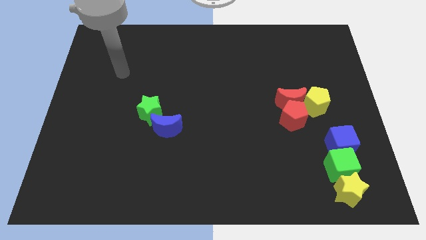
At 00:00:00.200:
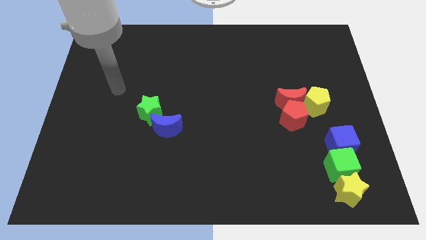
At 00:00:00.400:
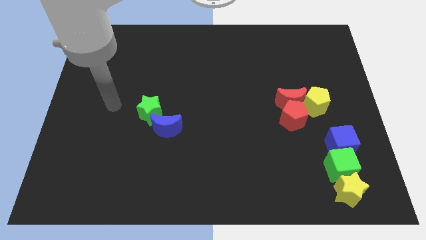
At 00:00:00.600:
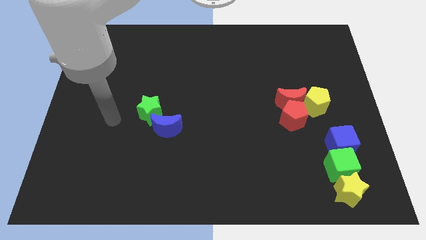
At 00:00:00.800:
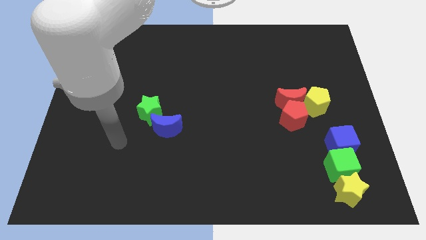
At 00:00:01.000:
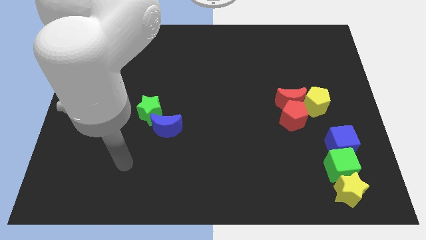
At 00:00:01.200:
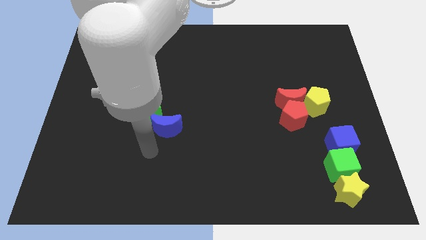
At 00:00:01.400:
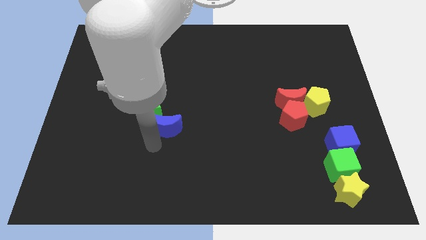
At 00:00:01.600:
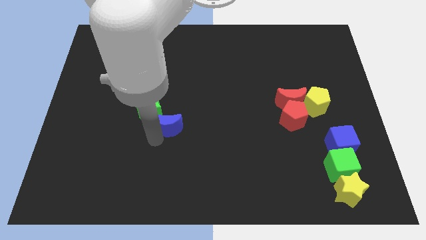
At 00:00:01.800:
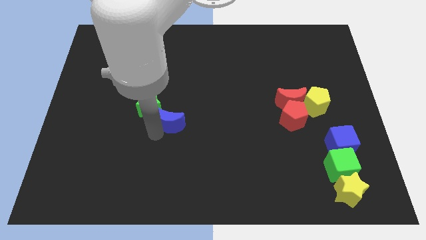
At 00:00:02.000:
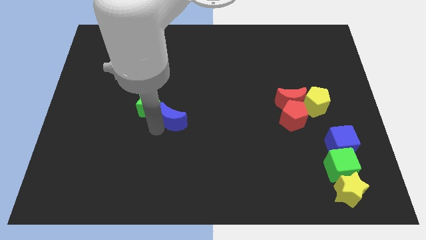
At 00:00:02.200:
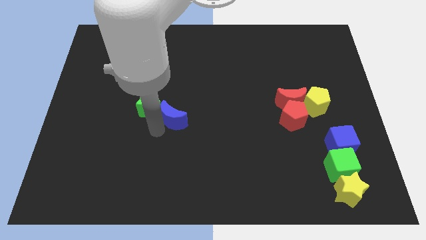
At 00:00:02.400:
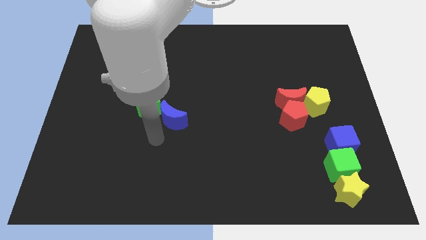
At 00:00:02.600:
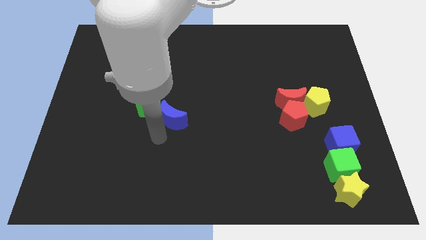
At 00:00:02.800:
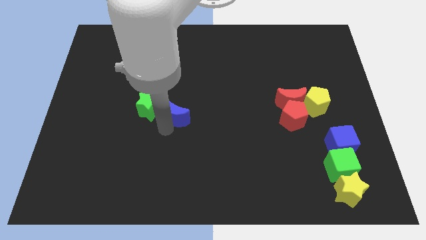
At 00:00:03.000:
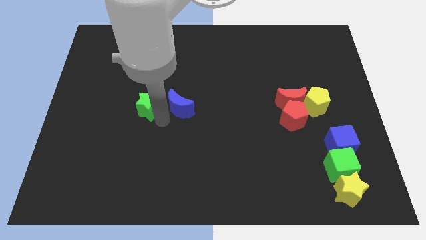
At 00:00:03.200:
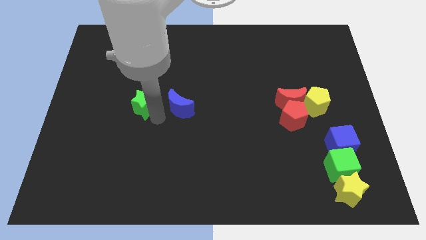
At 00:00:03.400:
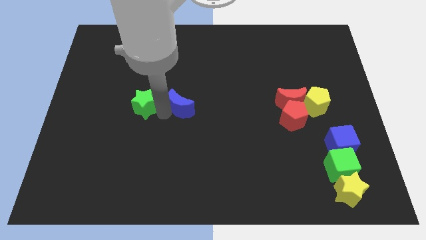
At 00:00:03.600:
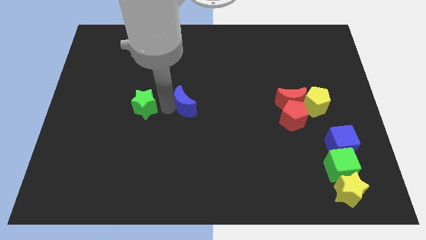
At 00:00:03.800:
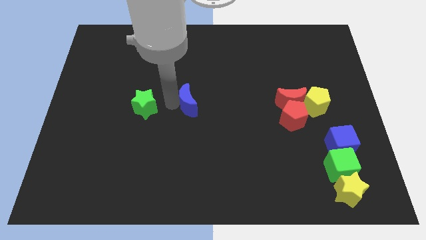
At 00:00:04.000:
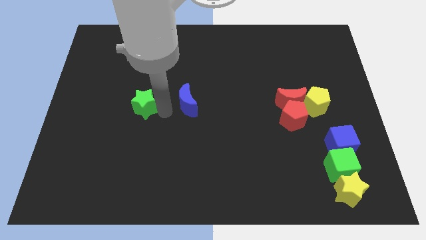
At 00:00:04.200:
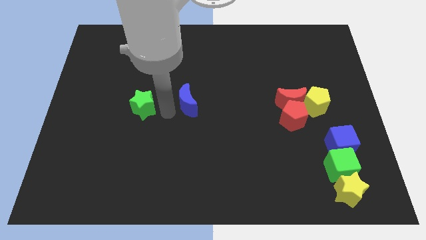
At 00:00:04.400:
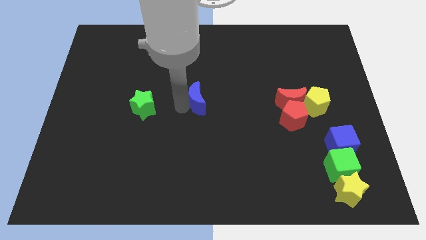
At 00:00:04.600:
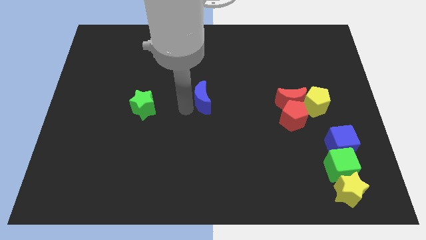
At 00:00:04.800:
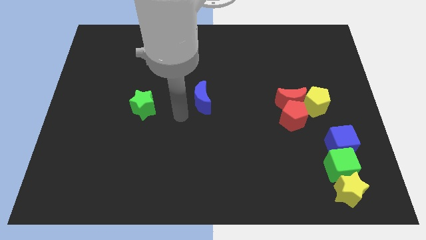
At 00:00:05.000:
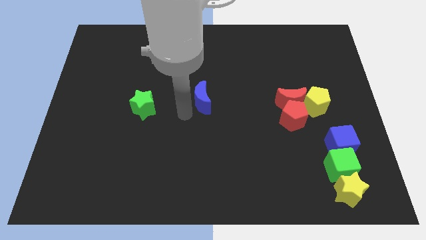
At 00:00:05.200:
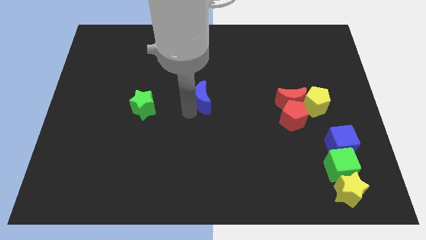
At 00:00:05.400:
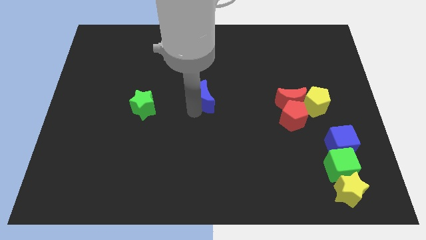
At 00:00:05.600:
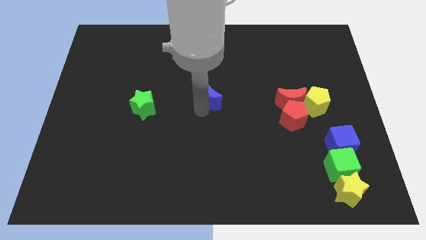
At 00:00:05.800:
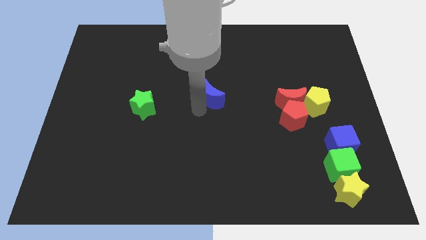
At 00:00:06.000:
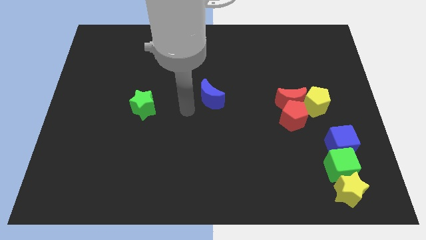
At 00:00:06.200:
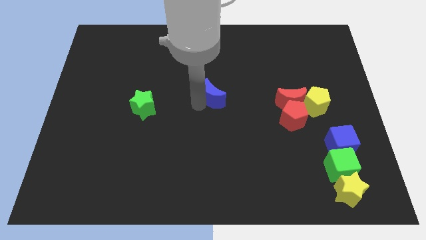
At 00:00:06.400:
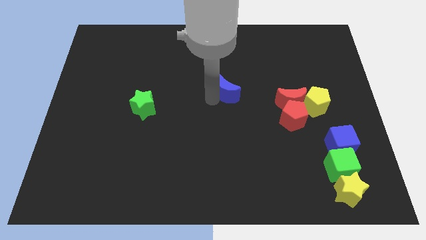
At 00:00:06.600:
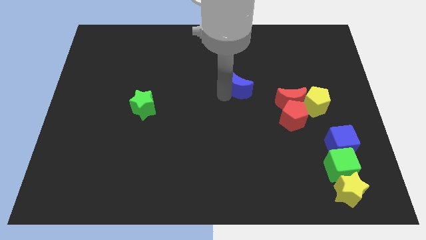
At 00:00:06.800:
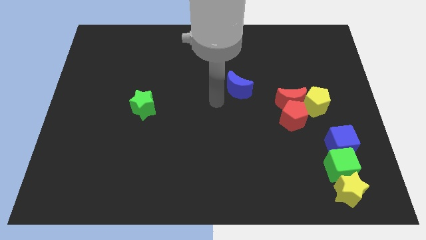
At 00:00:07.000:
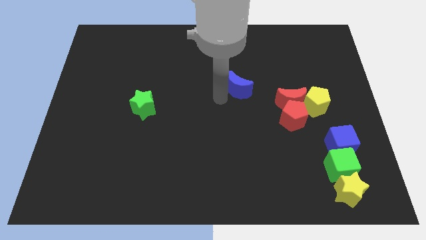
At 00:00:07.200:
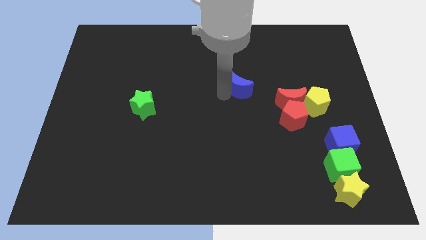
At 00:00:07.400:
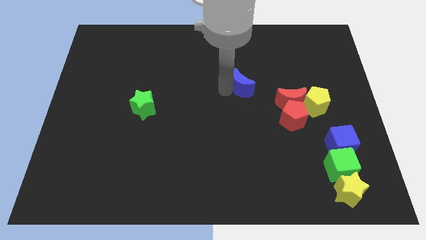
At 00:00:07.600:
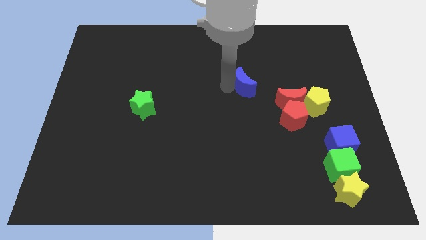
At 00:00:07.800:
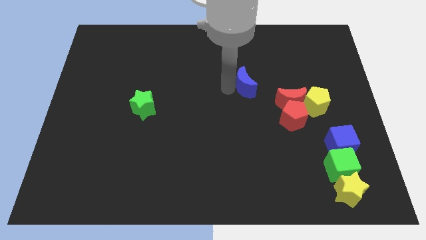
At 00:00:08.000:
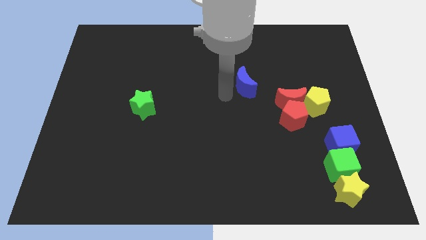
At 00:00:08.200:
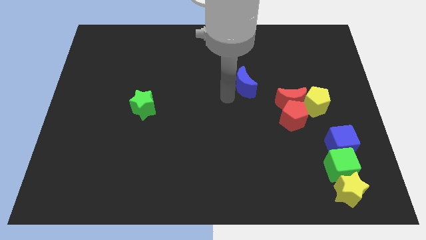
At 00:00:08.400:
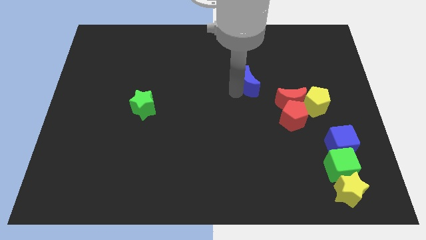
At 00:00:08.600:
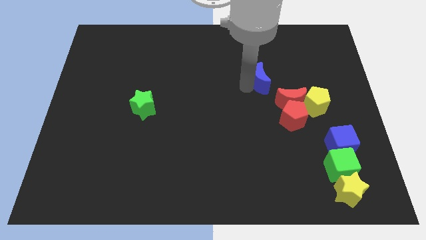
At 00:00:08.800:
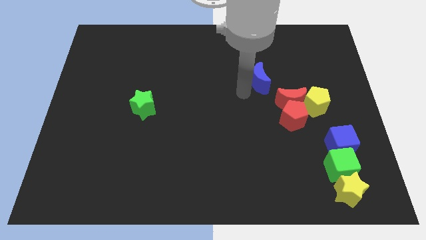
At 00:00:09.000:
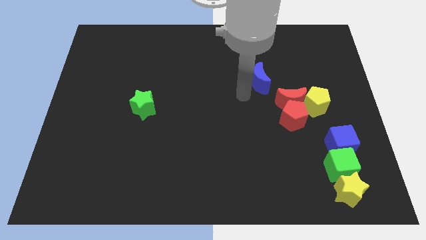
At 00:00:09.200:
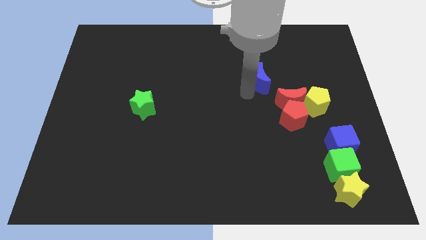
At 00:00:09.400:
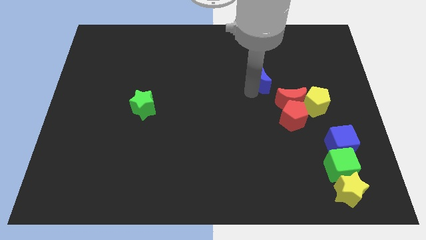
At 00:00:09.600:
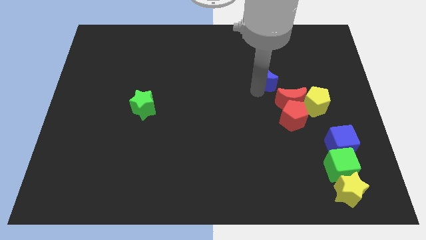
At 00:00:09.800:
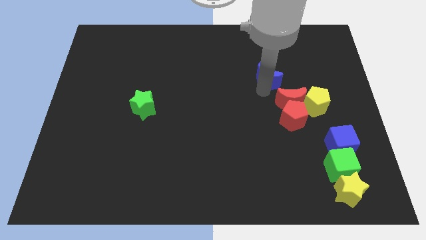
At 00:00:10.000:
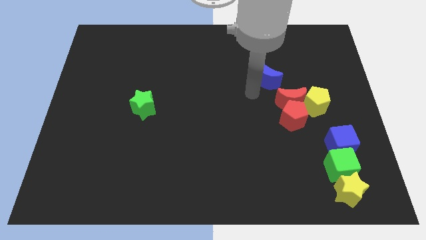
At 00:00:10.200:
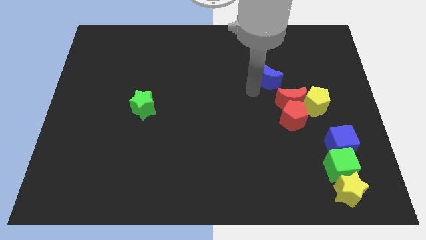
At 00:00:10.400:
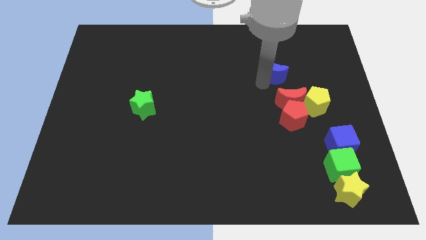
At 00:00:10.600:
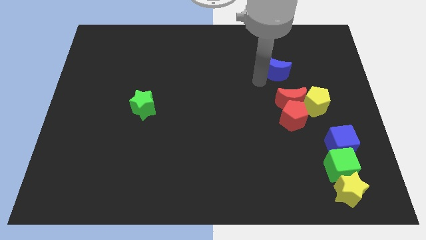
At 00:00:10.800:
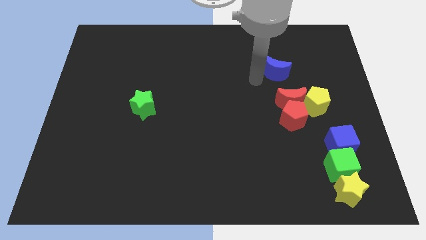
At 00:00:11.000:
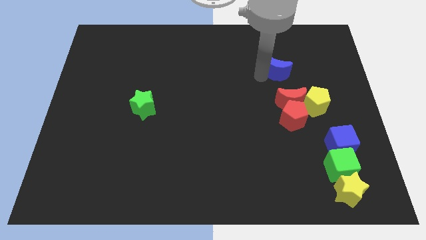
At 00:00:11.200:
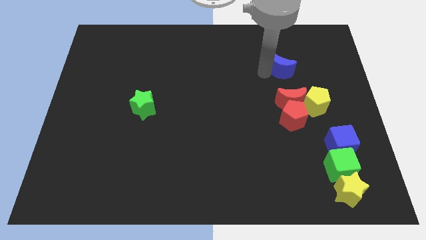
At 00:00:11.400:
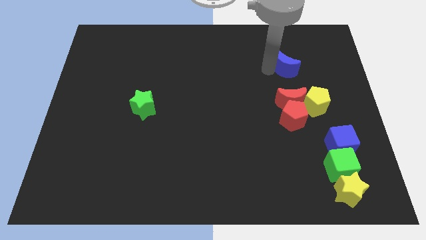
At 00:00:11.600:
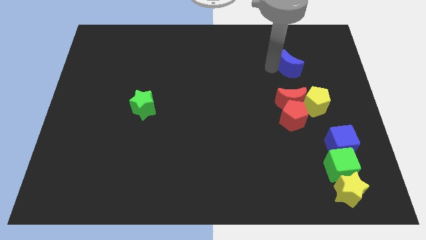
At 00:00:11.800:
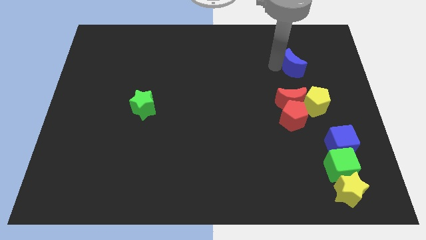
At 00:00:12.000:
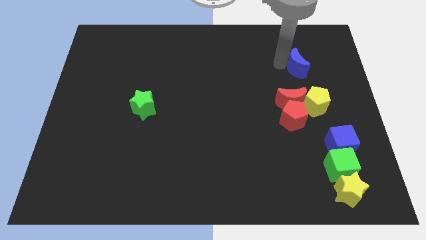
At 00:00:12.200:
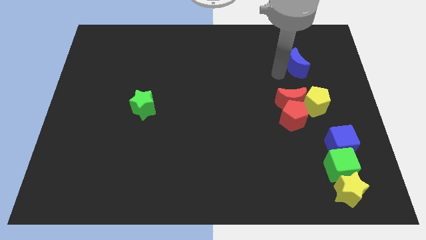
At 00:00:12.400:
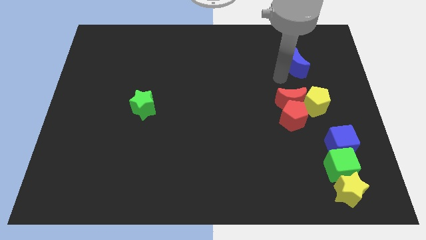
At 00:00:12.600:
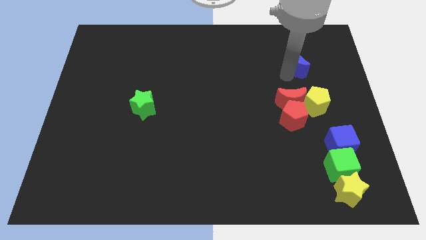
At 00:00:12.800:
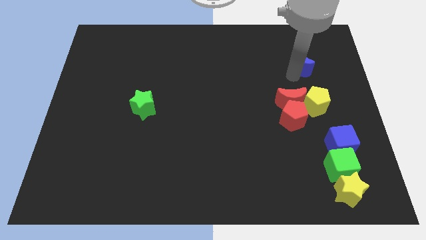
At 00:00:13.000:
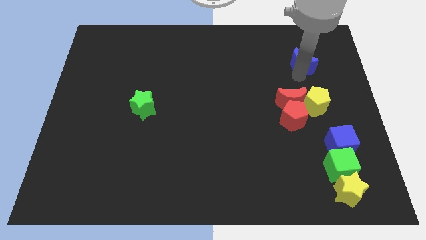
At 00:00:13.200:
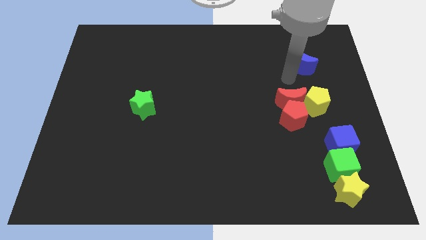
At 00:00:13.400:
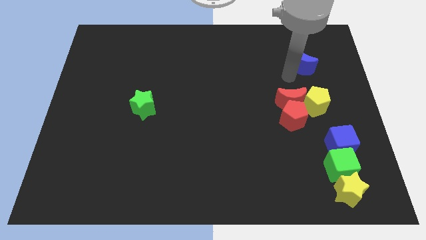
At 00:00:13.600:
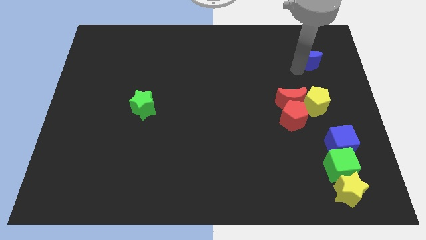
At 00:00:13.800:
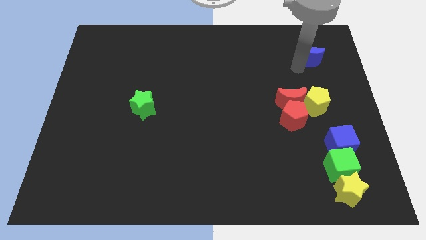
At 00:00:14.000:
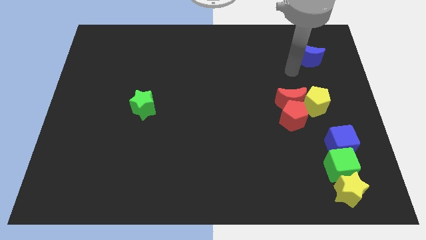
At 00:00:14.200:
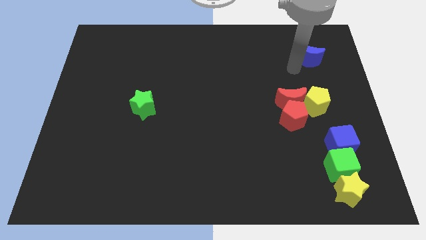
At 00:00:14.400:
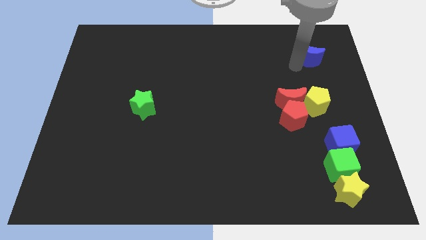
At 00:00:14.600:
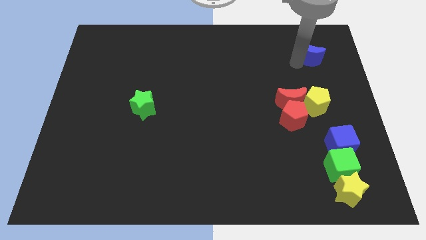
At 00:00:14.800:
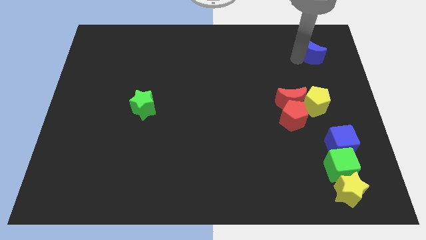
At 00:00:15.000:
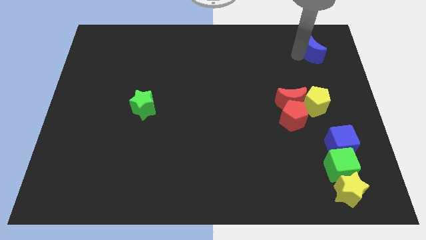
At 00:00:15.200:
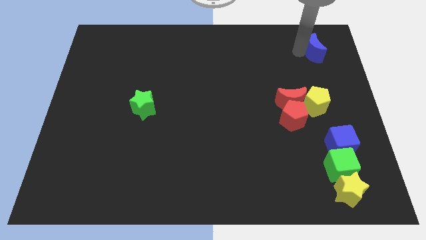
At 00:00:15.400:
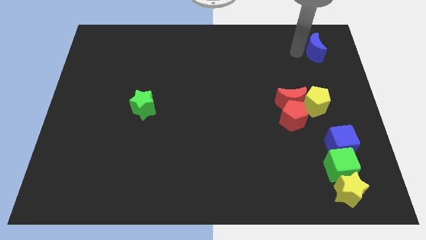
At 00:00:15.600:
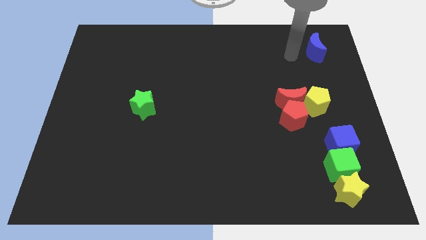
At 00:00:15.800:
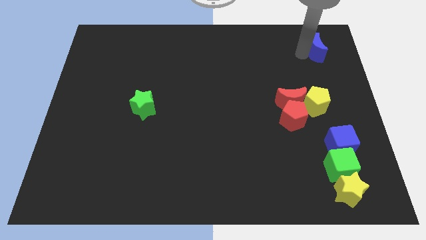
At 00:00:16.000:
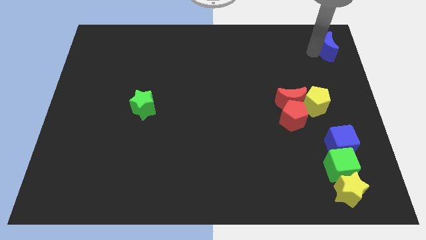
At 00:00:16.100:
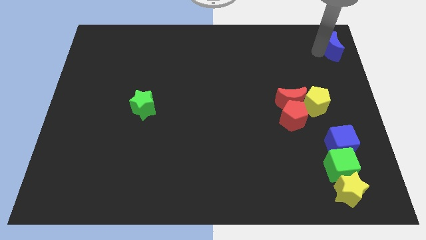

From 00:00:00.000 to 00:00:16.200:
move the blue moon to the upper right corner
